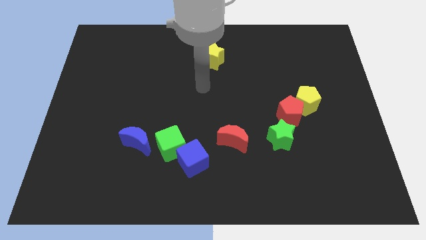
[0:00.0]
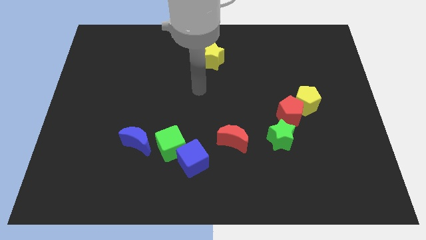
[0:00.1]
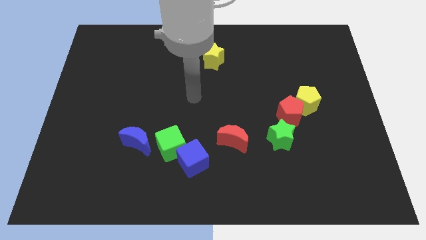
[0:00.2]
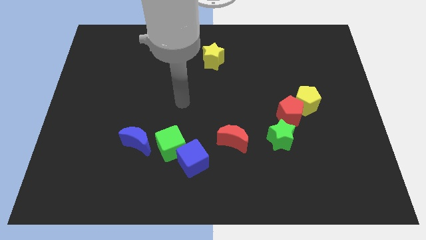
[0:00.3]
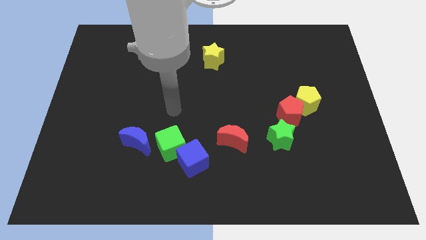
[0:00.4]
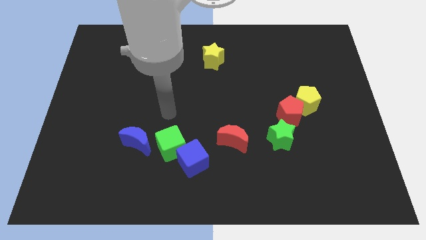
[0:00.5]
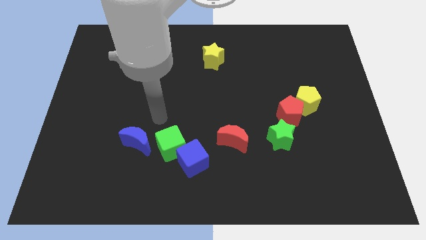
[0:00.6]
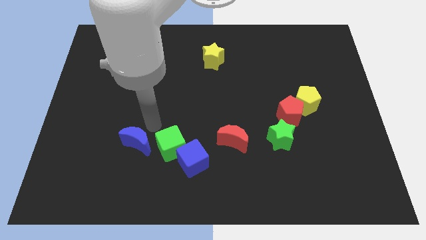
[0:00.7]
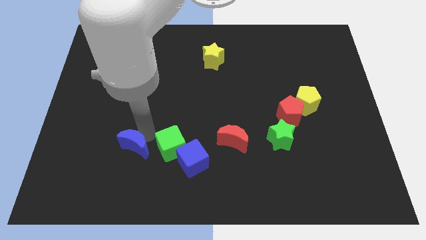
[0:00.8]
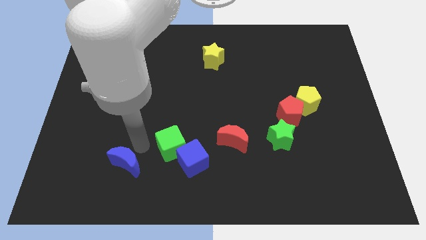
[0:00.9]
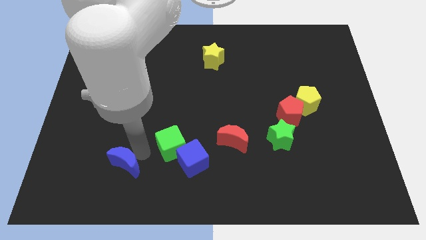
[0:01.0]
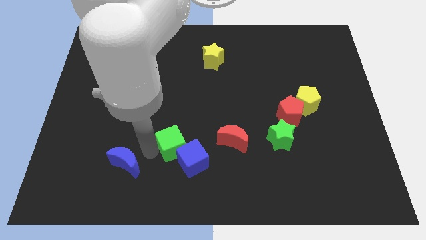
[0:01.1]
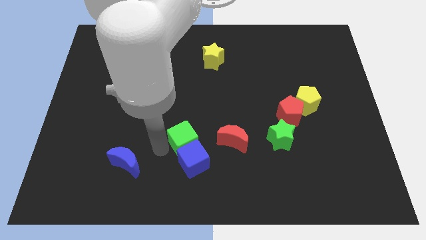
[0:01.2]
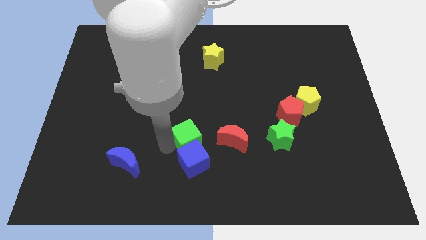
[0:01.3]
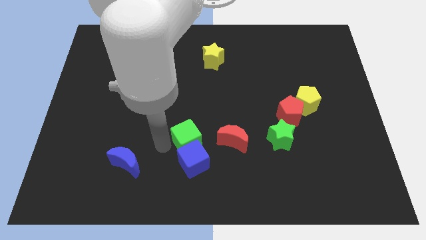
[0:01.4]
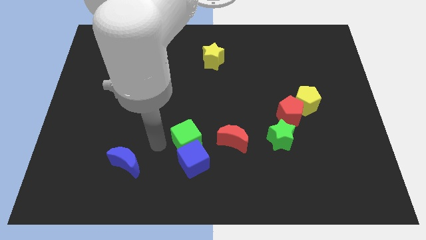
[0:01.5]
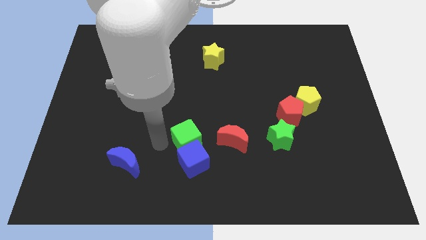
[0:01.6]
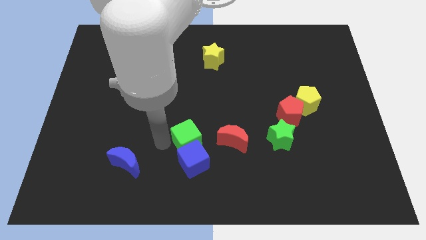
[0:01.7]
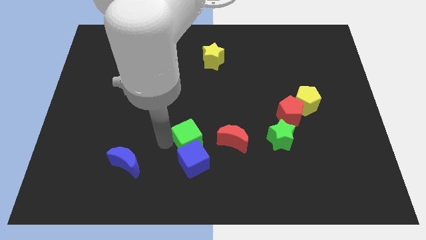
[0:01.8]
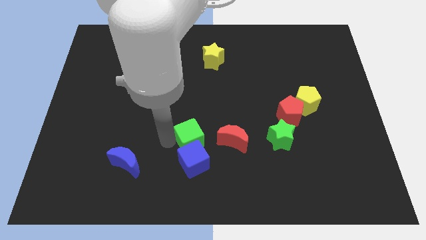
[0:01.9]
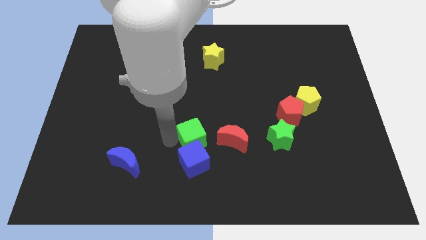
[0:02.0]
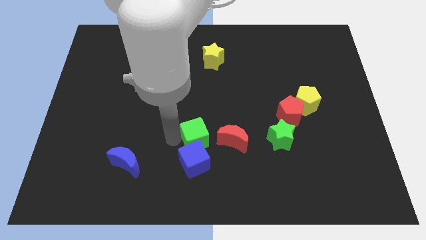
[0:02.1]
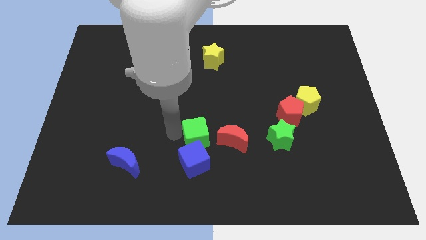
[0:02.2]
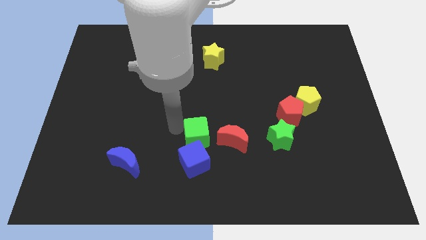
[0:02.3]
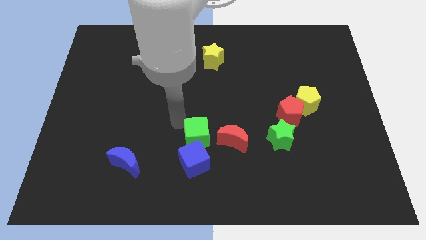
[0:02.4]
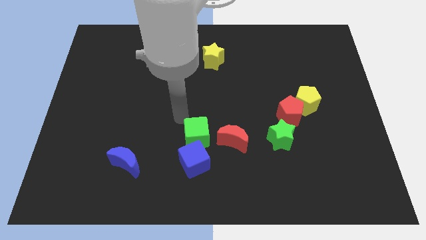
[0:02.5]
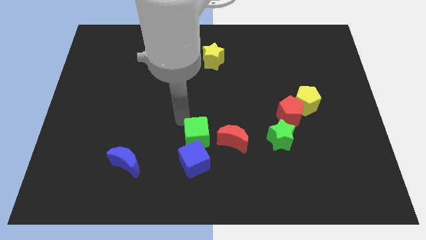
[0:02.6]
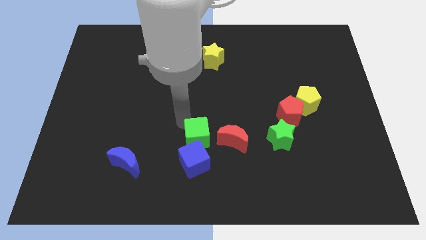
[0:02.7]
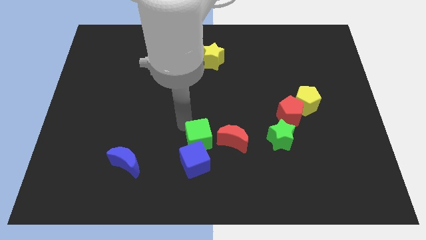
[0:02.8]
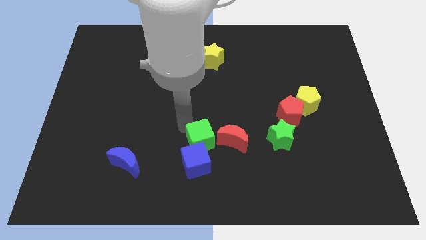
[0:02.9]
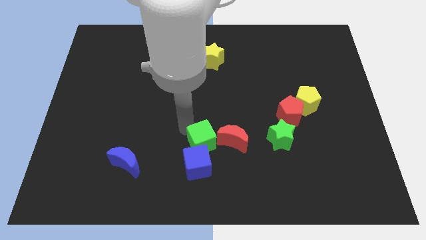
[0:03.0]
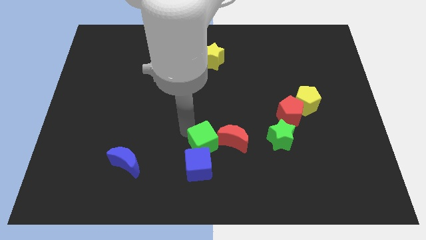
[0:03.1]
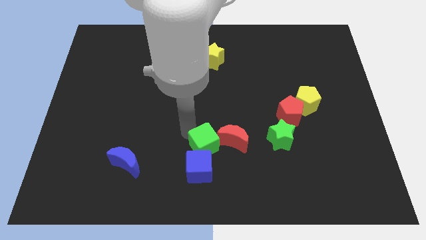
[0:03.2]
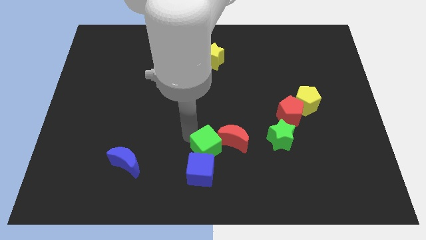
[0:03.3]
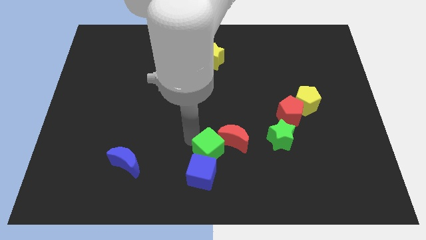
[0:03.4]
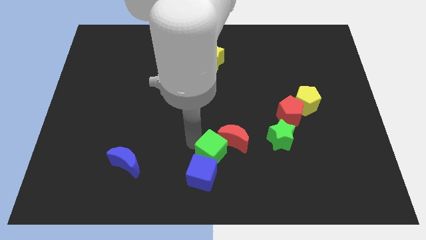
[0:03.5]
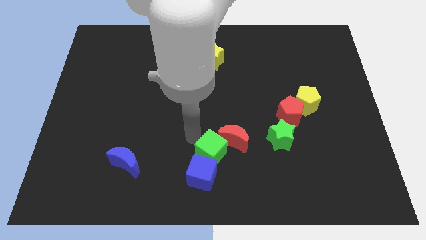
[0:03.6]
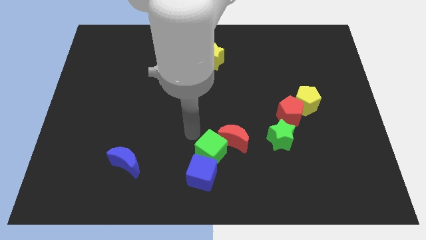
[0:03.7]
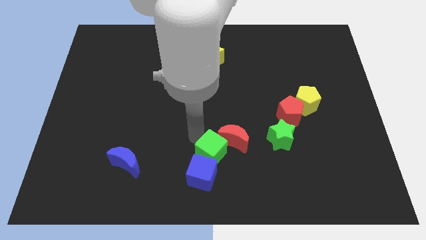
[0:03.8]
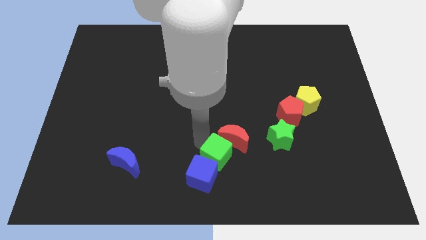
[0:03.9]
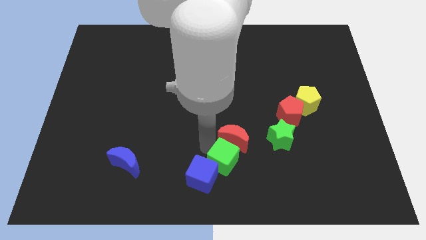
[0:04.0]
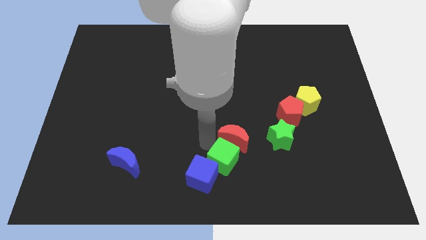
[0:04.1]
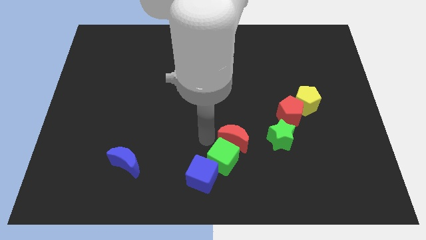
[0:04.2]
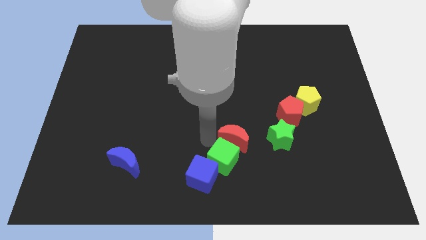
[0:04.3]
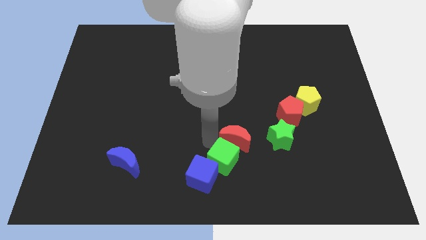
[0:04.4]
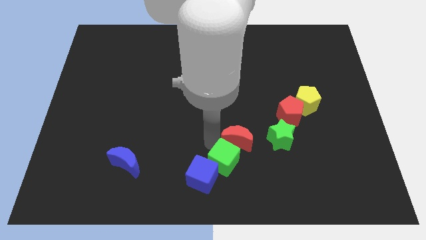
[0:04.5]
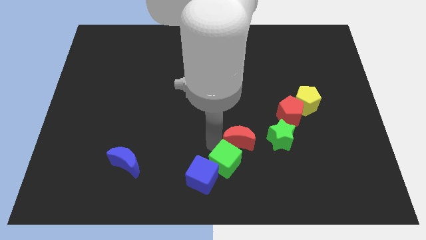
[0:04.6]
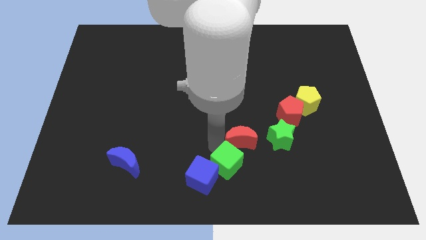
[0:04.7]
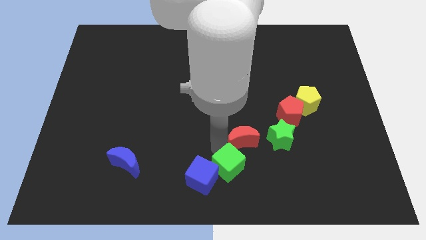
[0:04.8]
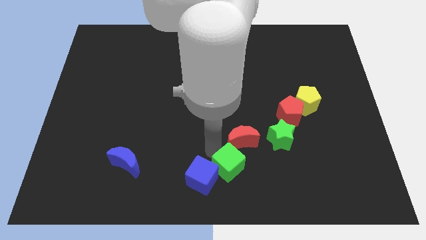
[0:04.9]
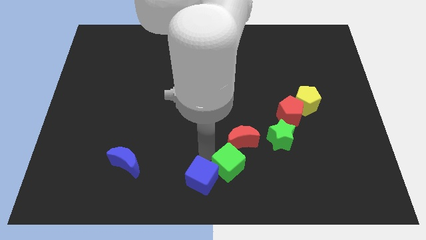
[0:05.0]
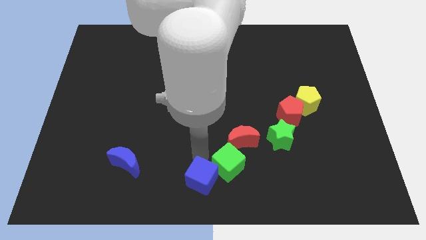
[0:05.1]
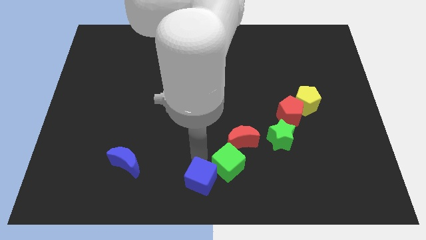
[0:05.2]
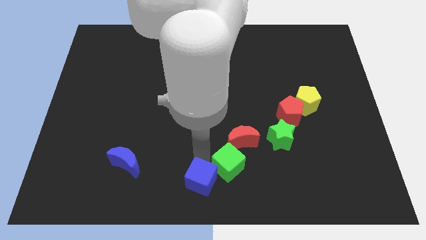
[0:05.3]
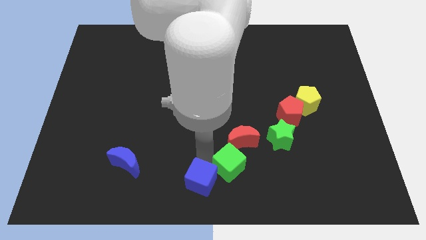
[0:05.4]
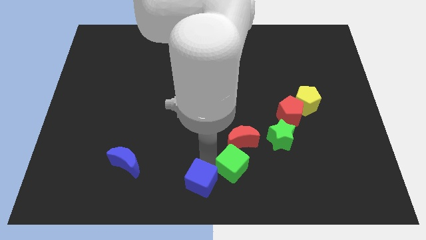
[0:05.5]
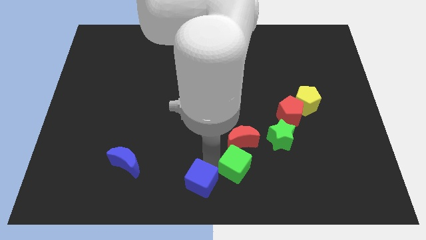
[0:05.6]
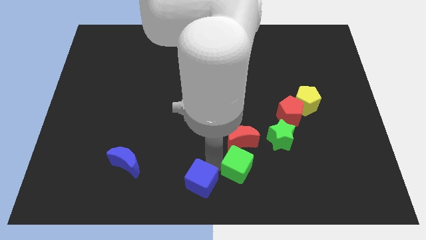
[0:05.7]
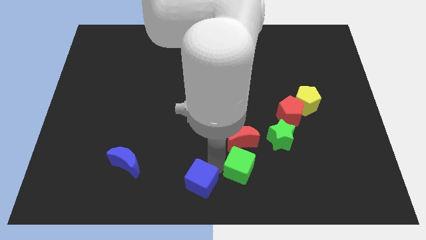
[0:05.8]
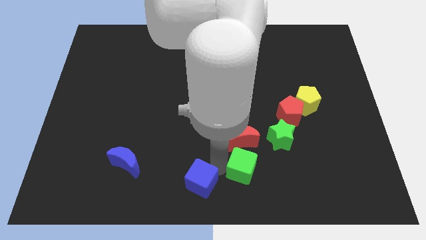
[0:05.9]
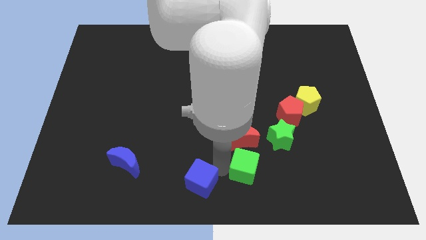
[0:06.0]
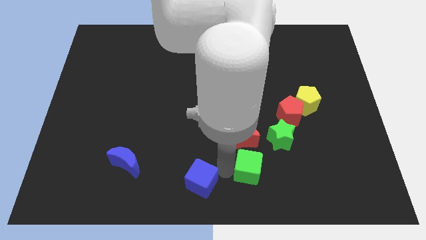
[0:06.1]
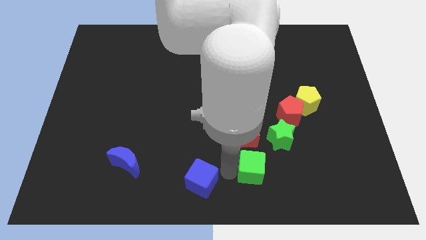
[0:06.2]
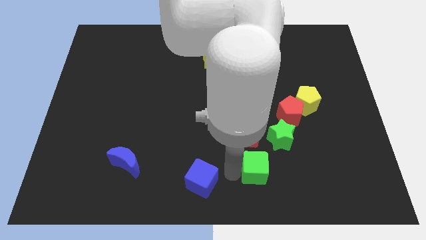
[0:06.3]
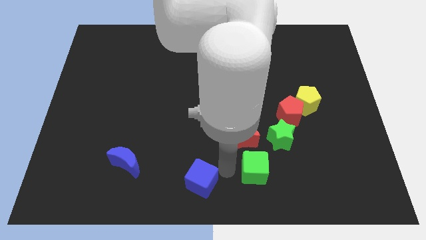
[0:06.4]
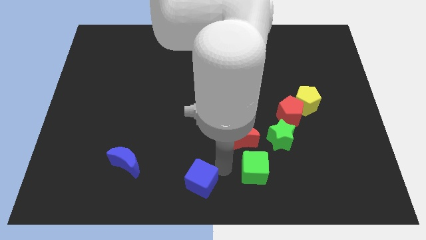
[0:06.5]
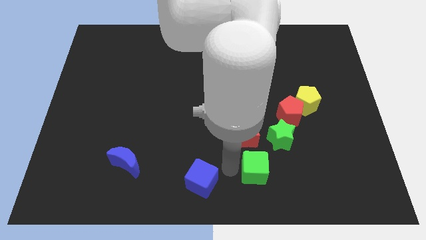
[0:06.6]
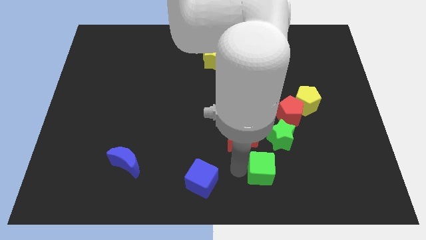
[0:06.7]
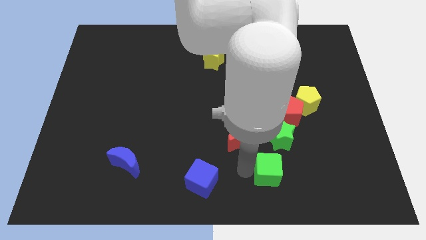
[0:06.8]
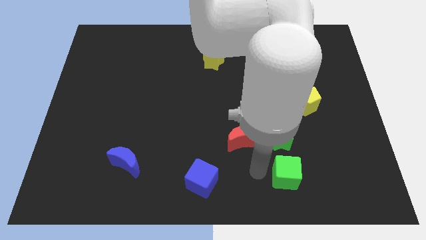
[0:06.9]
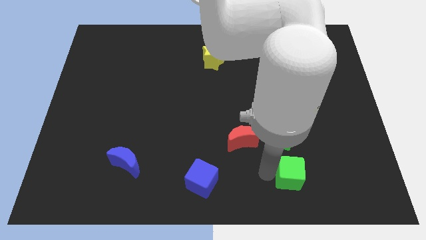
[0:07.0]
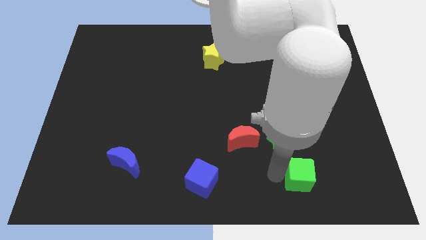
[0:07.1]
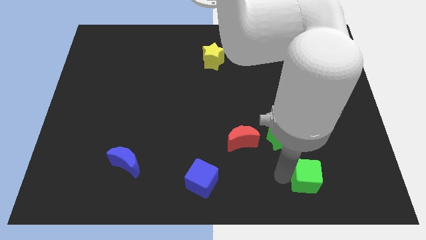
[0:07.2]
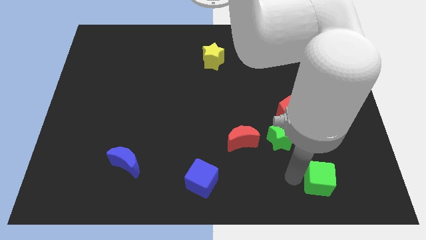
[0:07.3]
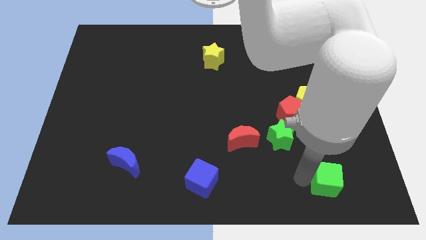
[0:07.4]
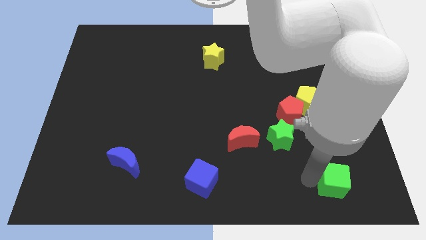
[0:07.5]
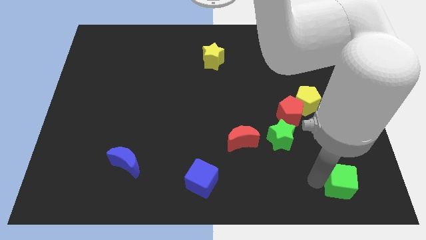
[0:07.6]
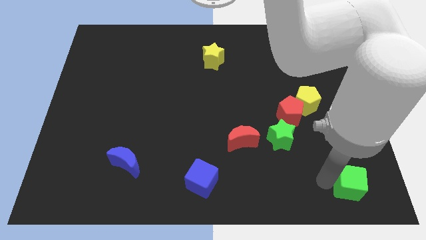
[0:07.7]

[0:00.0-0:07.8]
move the green cube to the bottom right
